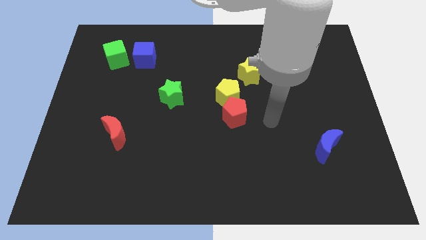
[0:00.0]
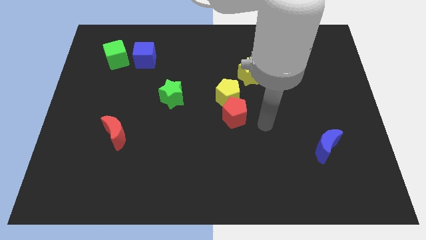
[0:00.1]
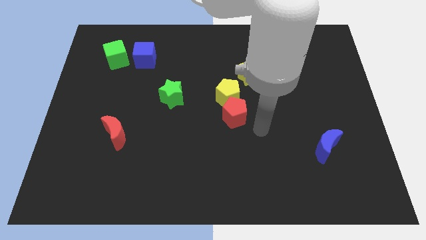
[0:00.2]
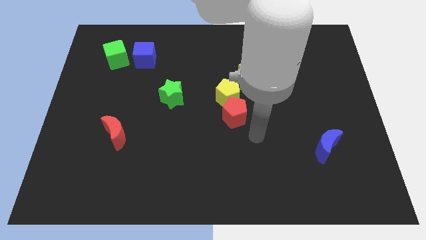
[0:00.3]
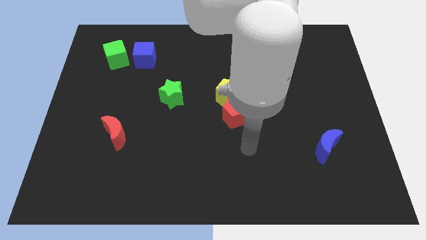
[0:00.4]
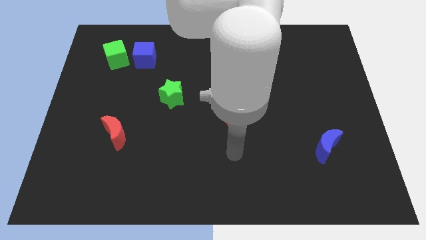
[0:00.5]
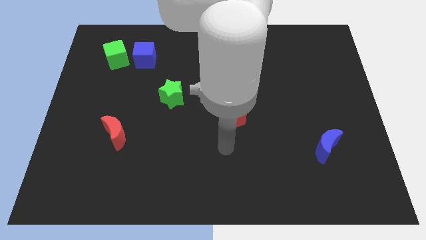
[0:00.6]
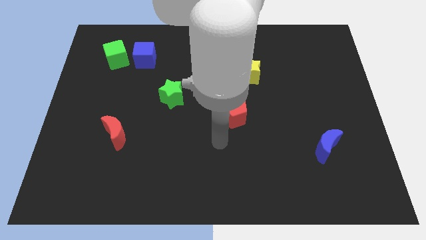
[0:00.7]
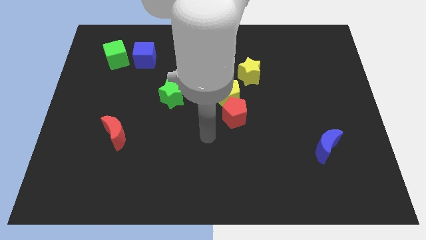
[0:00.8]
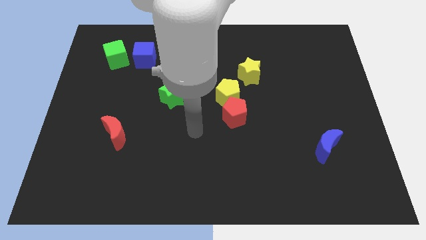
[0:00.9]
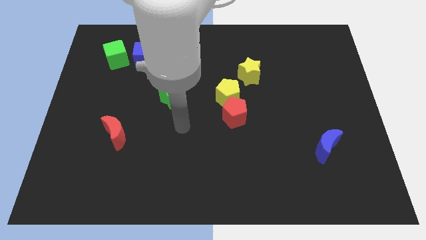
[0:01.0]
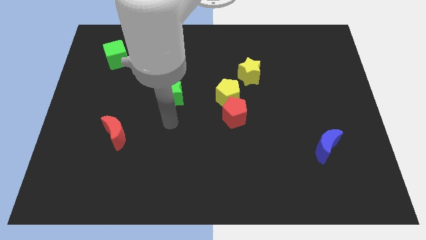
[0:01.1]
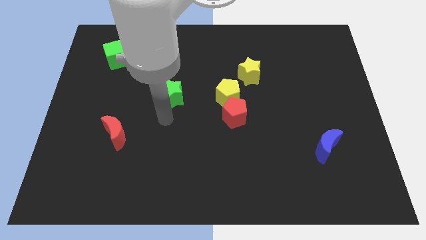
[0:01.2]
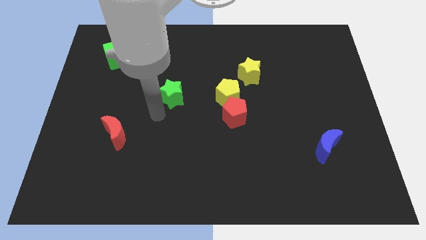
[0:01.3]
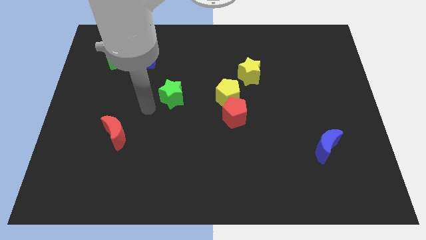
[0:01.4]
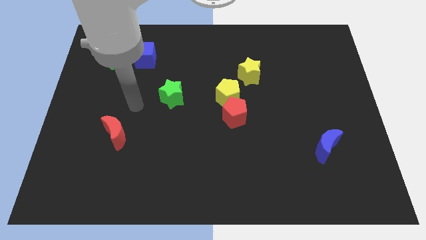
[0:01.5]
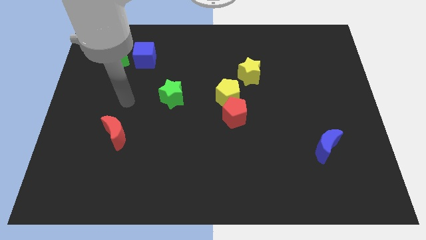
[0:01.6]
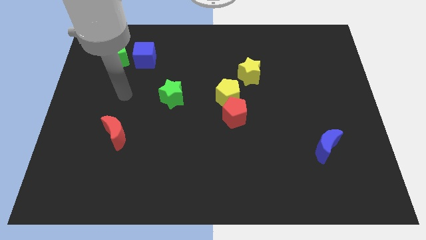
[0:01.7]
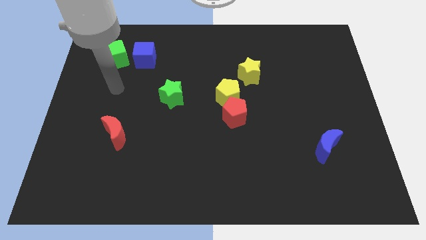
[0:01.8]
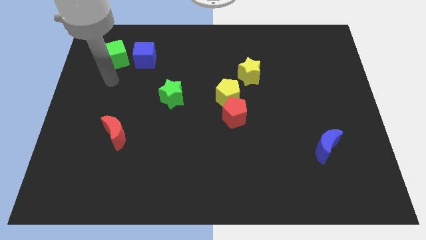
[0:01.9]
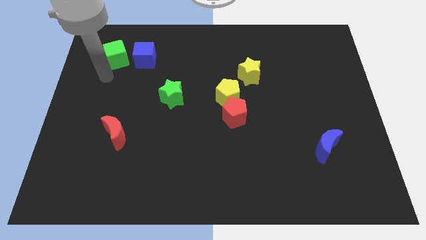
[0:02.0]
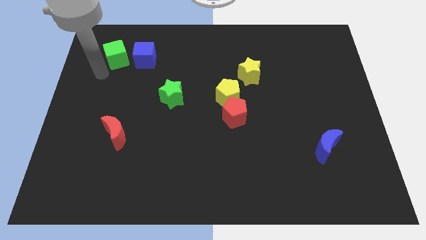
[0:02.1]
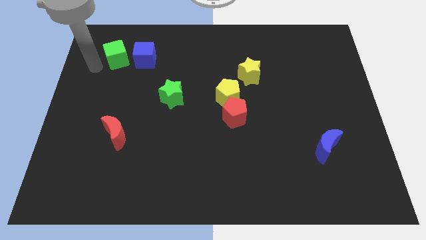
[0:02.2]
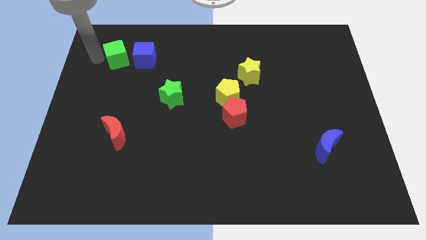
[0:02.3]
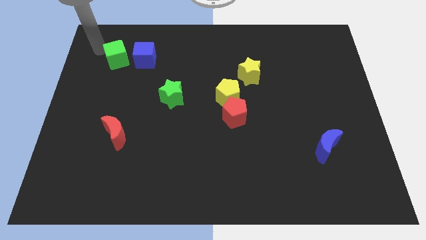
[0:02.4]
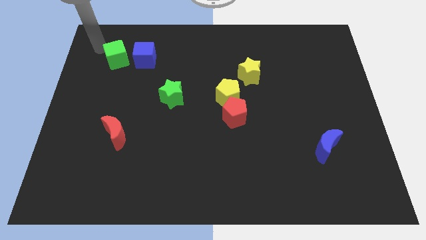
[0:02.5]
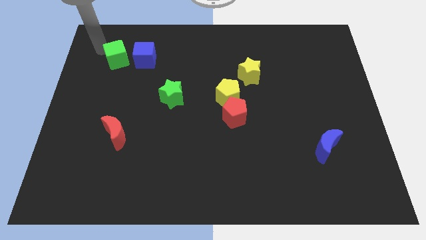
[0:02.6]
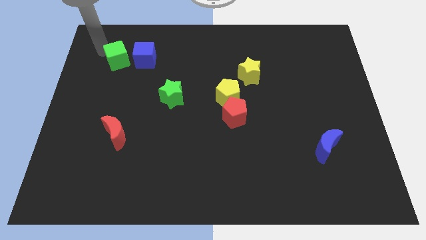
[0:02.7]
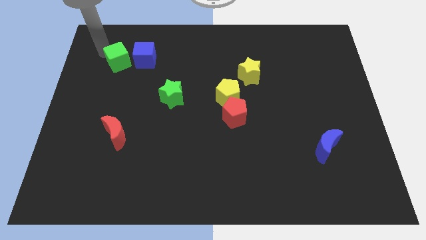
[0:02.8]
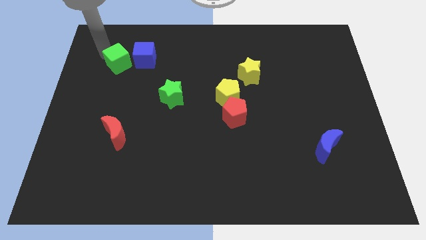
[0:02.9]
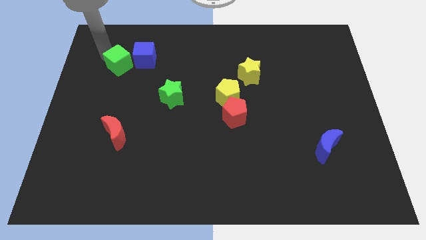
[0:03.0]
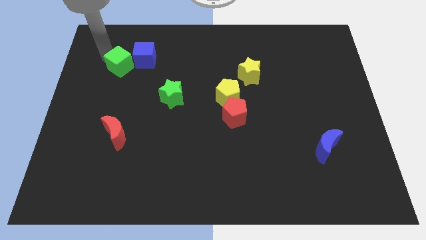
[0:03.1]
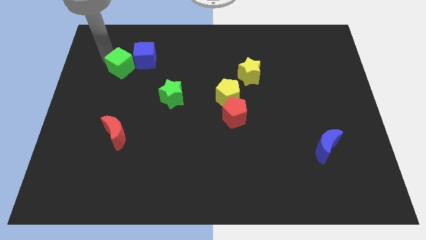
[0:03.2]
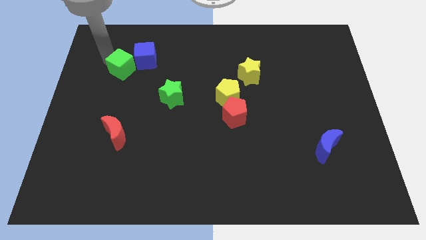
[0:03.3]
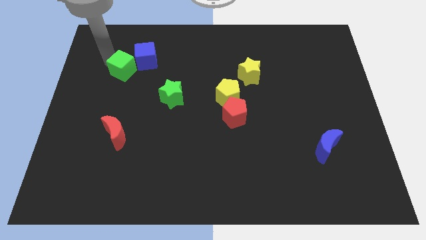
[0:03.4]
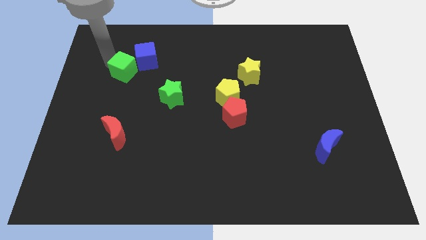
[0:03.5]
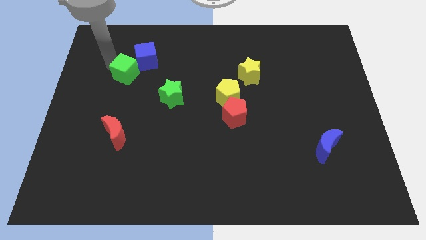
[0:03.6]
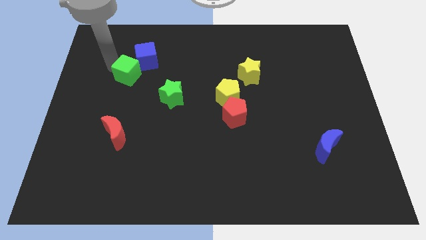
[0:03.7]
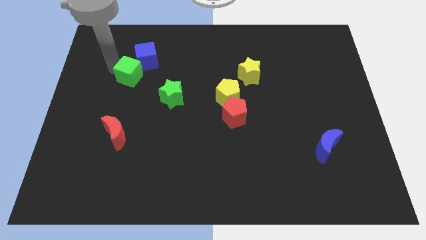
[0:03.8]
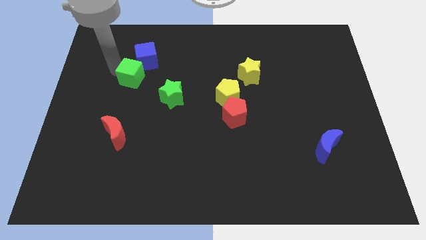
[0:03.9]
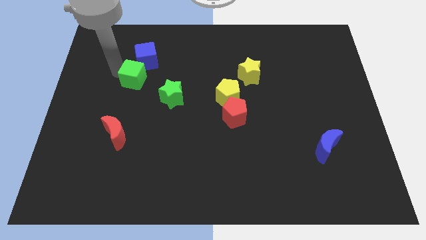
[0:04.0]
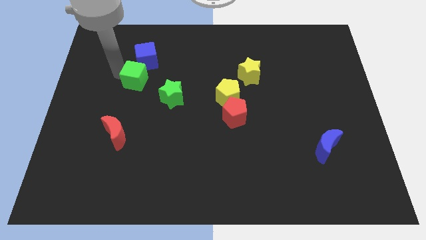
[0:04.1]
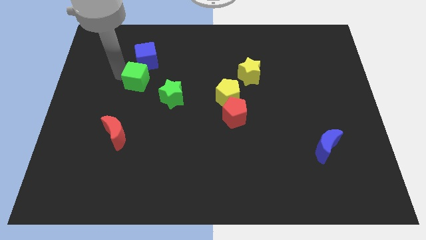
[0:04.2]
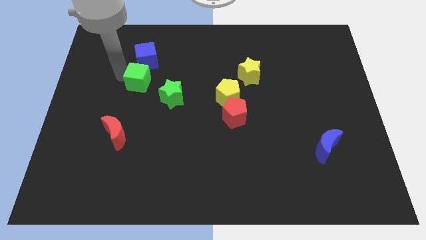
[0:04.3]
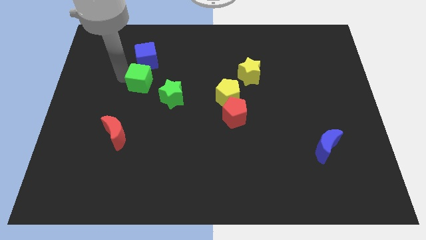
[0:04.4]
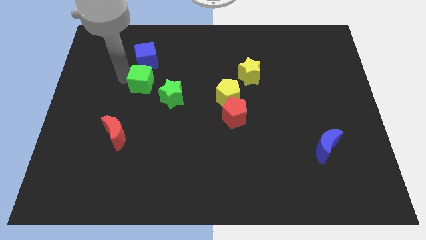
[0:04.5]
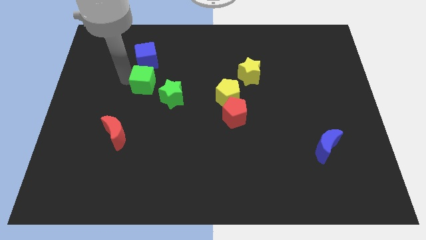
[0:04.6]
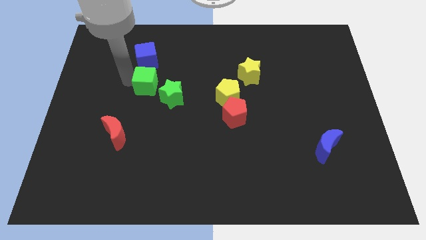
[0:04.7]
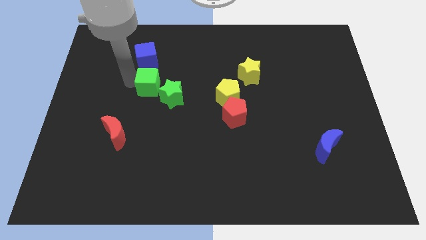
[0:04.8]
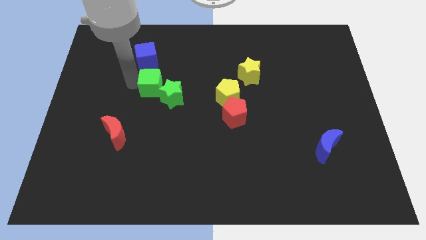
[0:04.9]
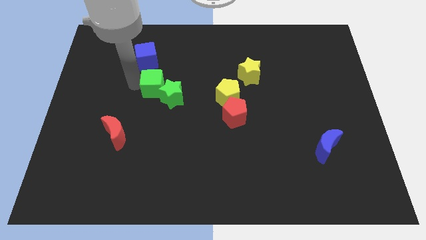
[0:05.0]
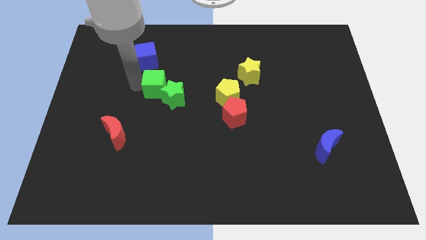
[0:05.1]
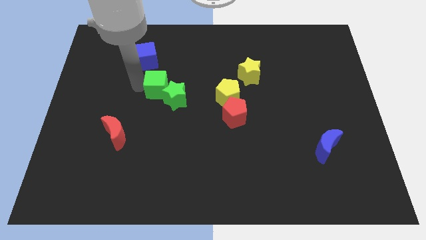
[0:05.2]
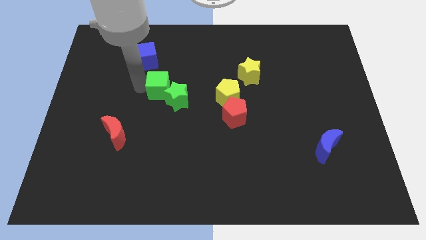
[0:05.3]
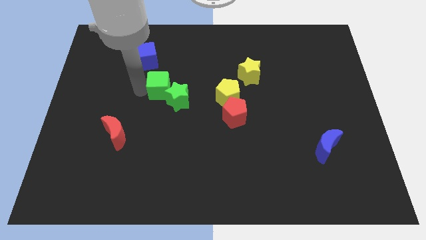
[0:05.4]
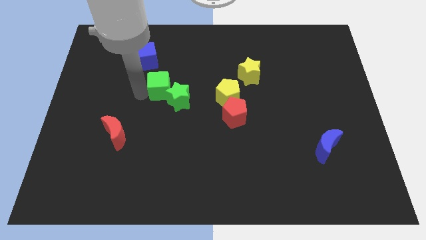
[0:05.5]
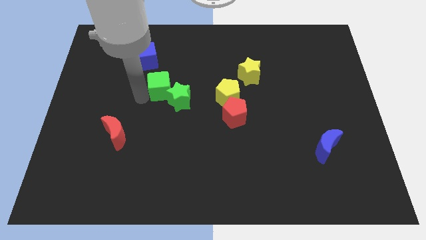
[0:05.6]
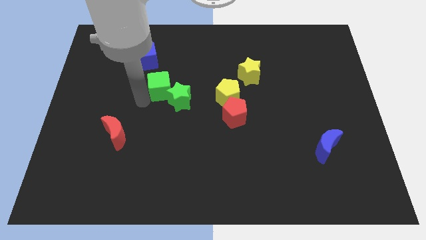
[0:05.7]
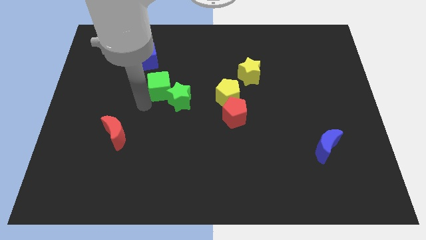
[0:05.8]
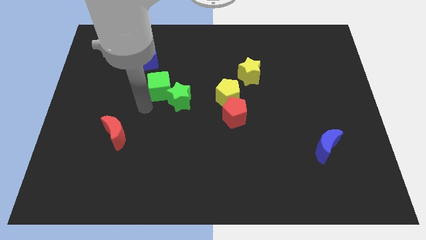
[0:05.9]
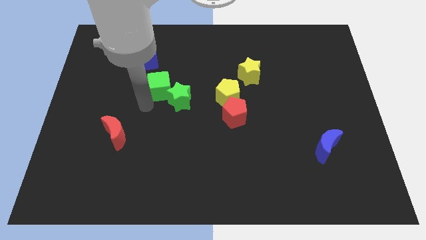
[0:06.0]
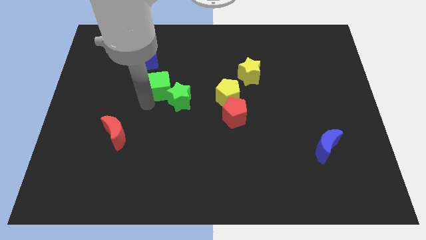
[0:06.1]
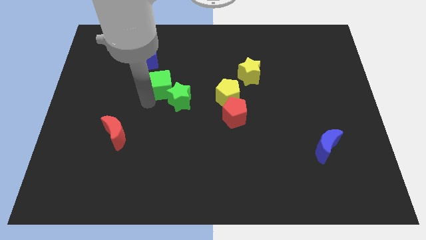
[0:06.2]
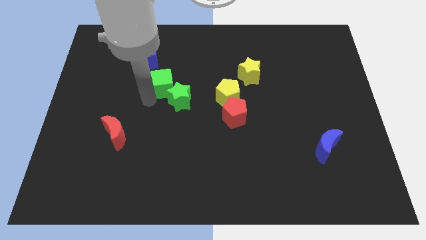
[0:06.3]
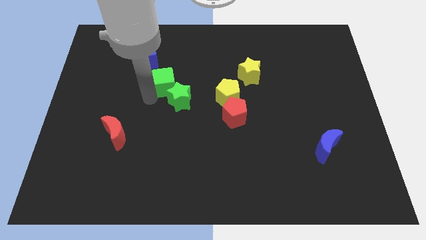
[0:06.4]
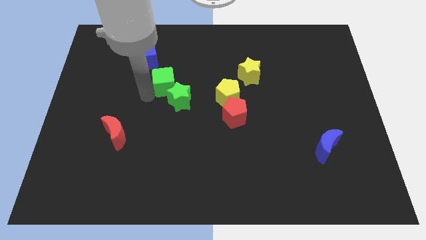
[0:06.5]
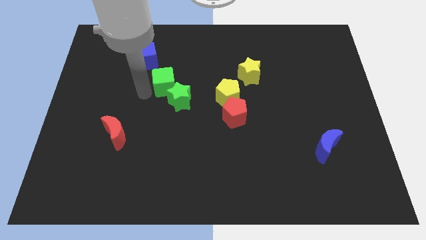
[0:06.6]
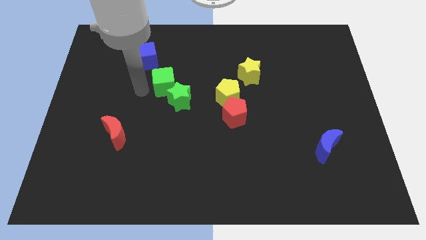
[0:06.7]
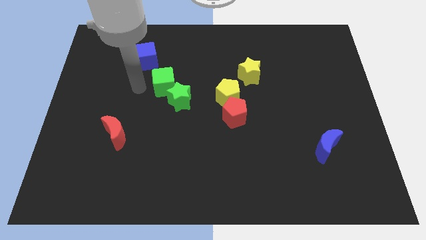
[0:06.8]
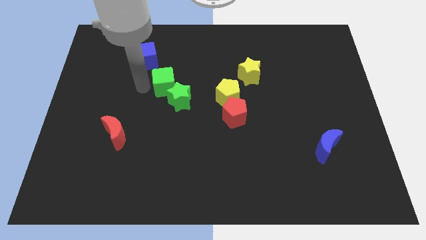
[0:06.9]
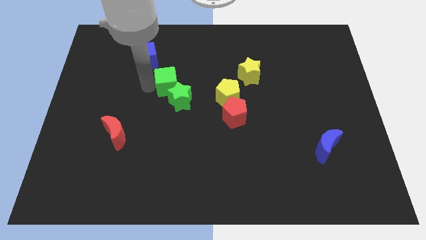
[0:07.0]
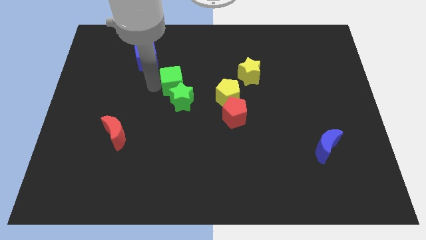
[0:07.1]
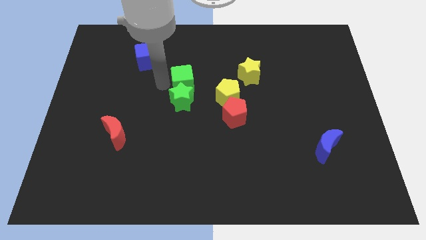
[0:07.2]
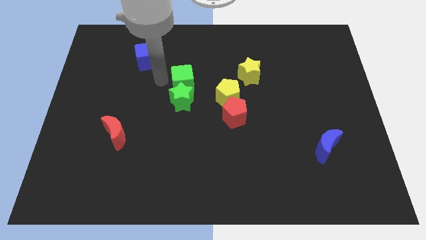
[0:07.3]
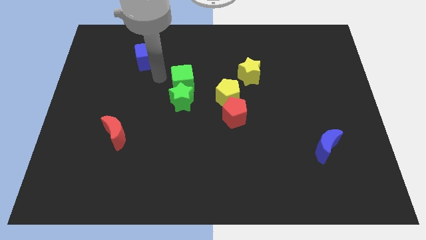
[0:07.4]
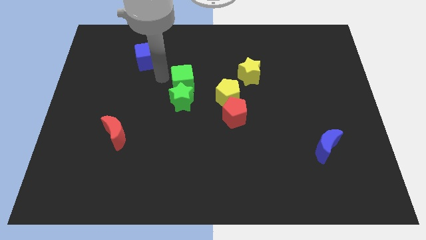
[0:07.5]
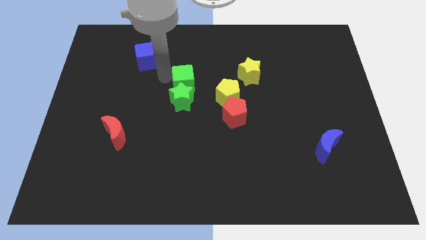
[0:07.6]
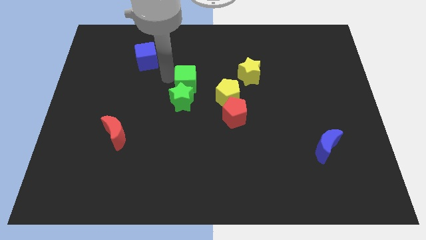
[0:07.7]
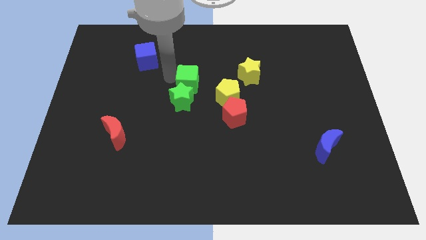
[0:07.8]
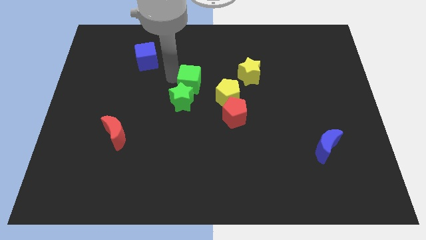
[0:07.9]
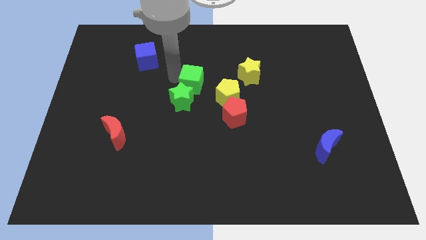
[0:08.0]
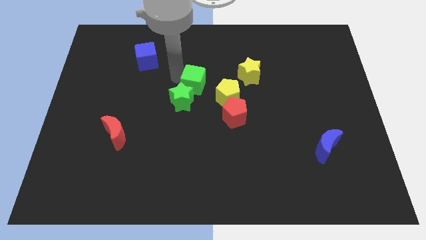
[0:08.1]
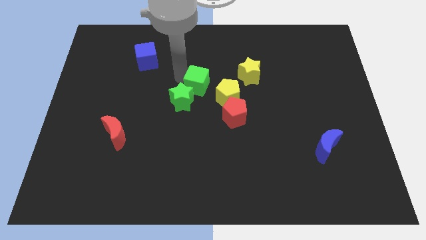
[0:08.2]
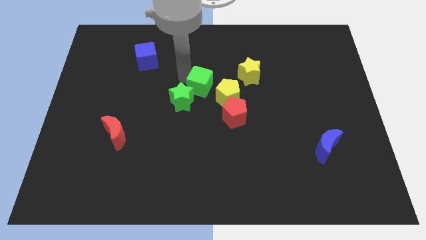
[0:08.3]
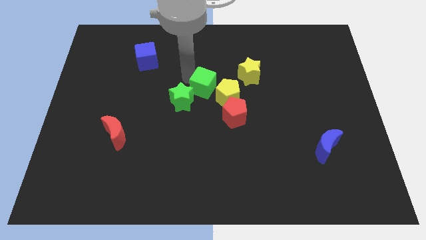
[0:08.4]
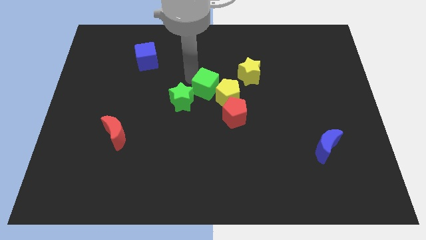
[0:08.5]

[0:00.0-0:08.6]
push the green cube close to the yellow pentagon
